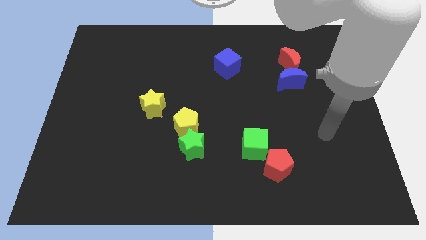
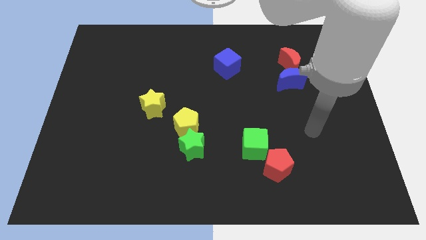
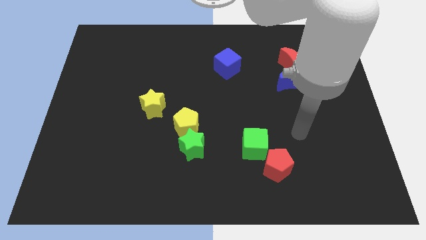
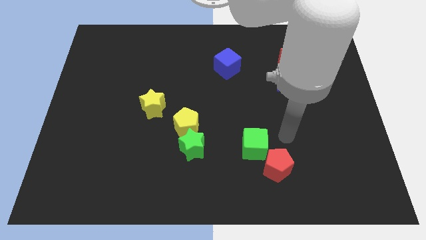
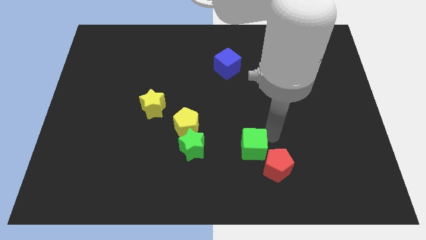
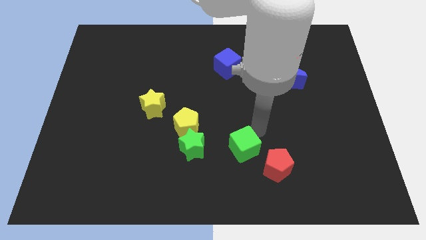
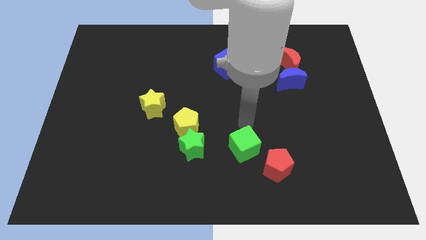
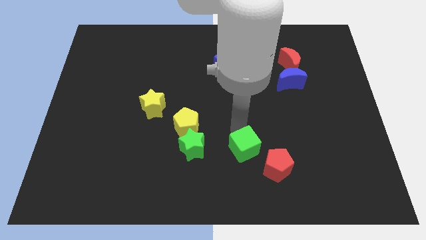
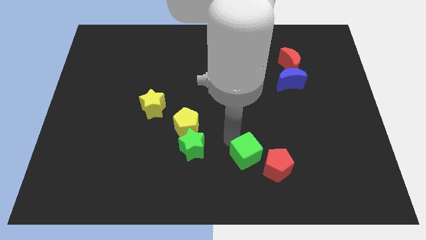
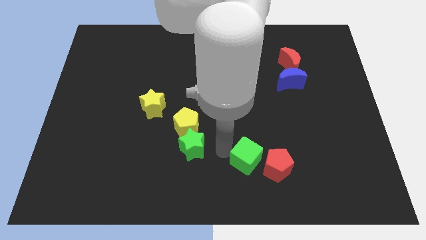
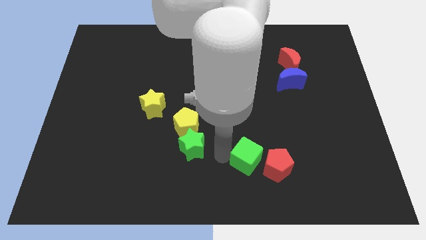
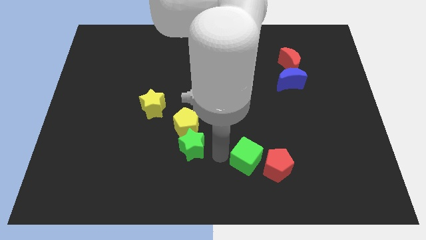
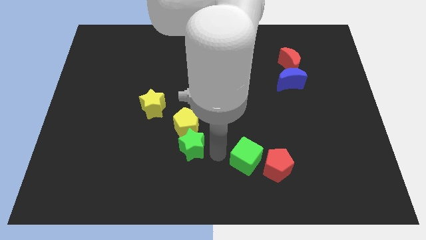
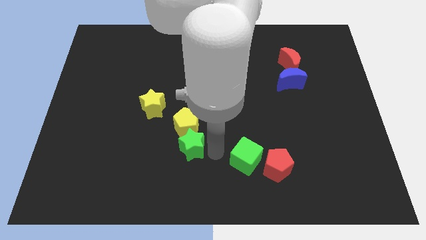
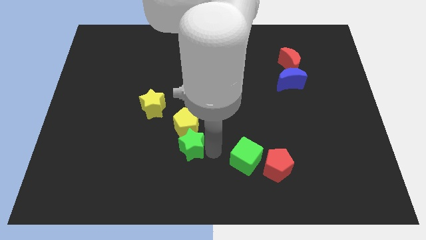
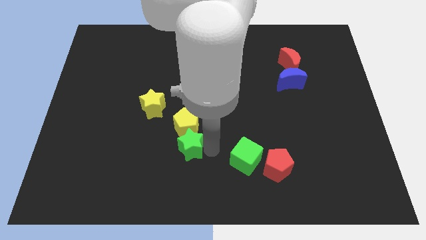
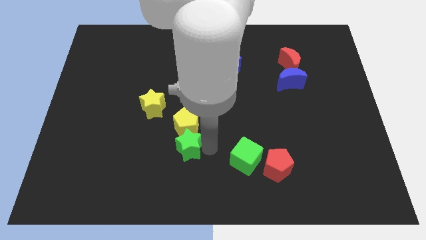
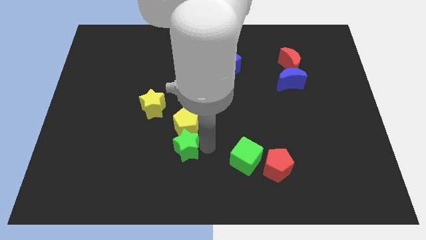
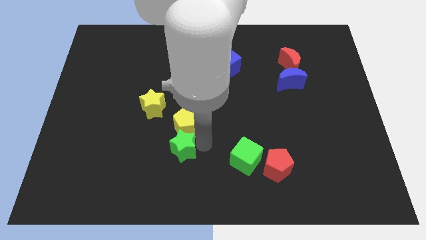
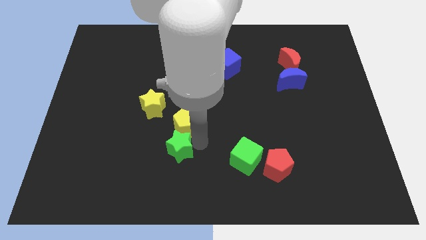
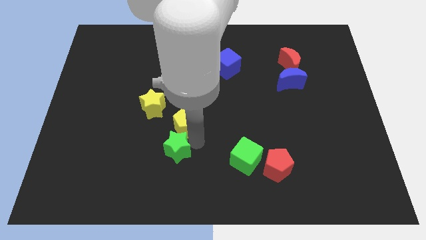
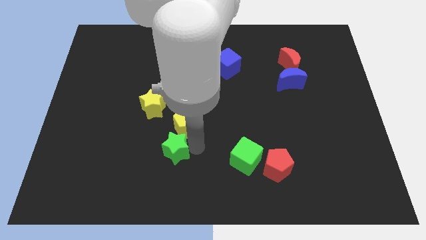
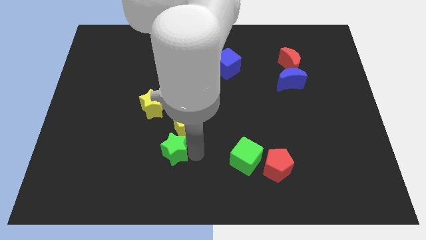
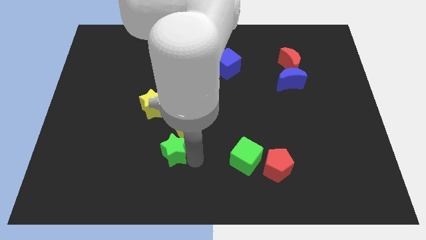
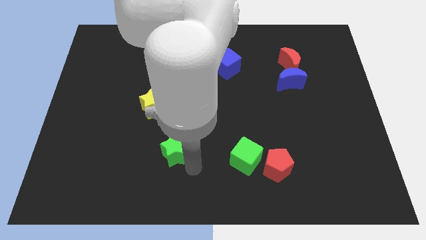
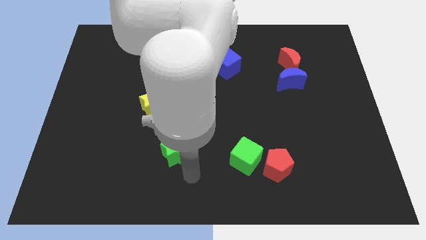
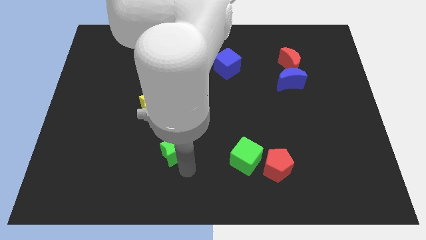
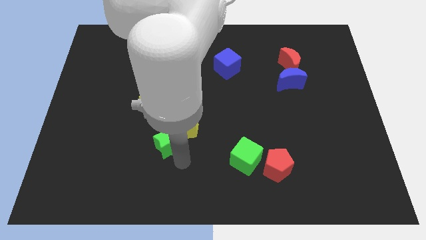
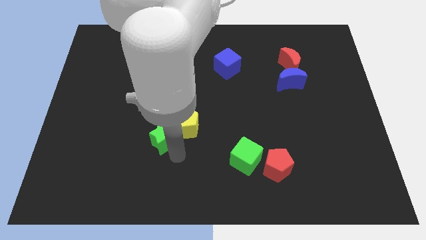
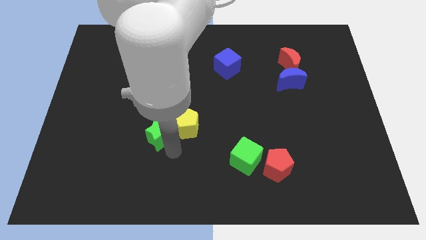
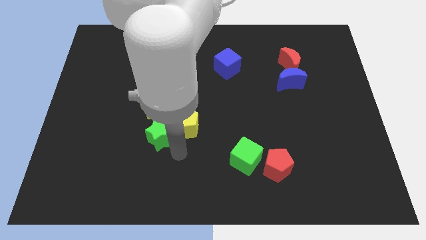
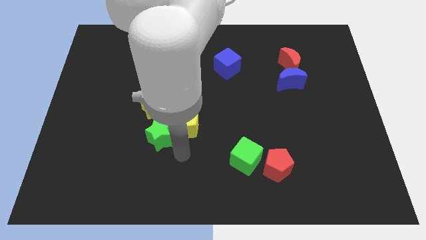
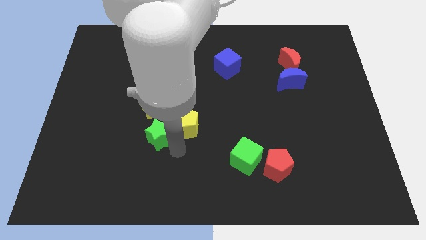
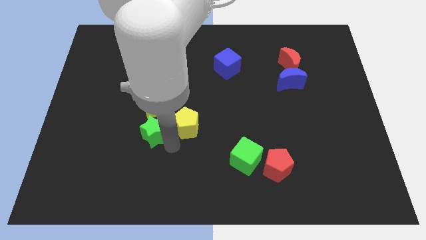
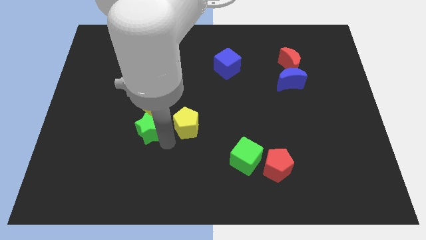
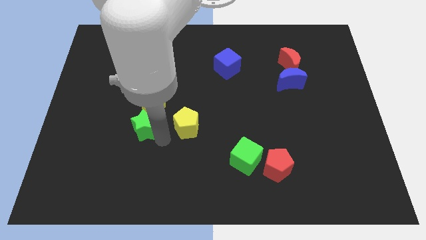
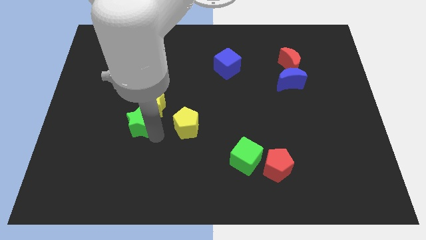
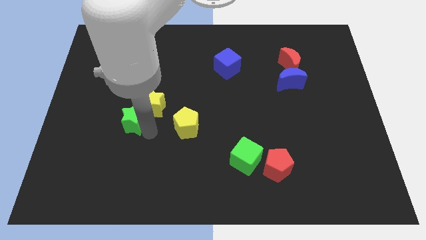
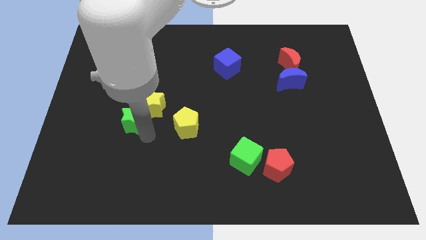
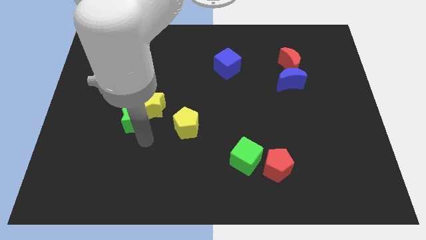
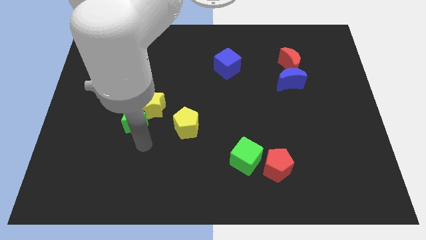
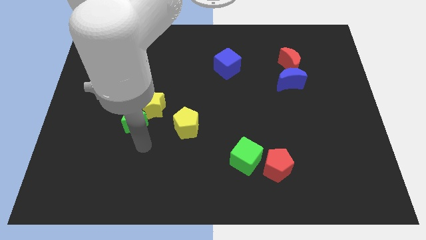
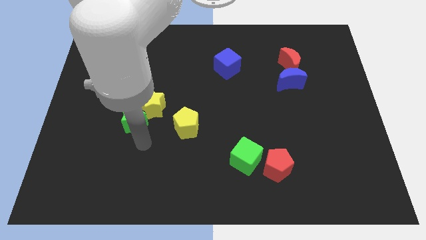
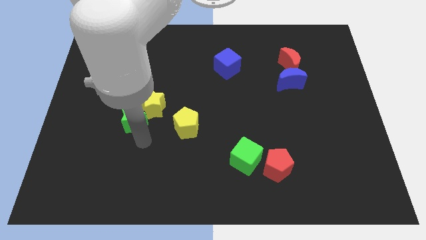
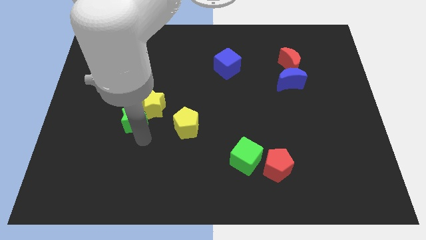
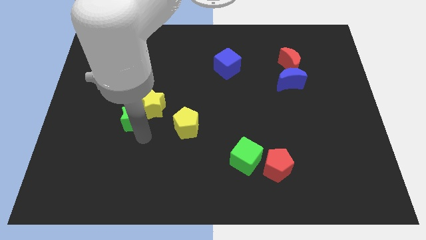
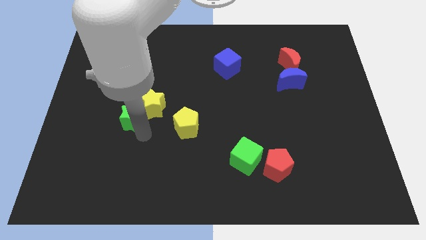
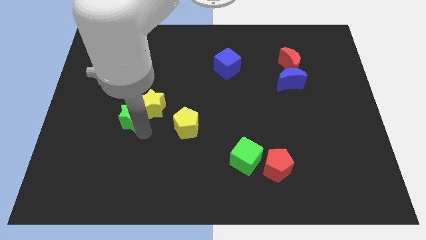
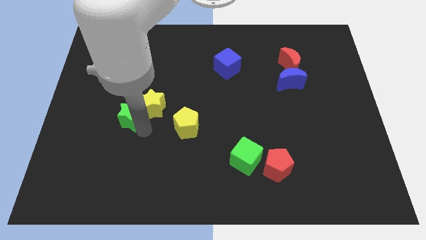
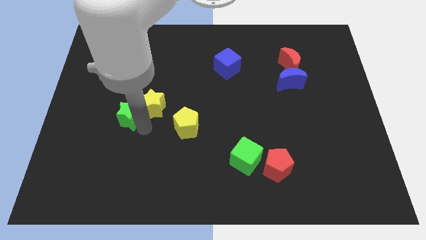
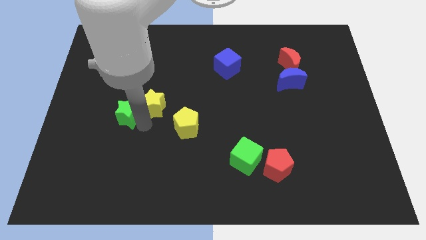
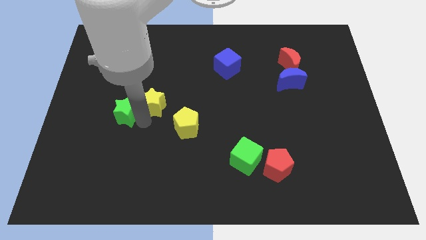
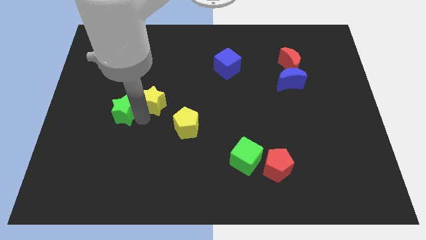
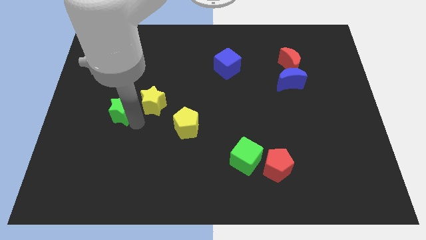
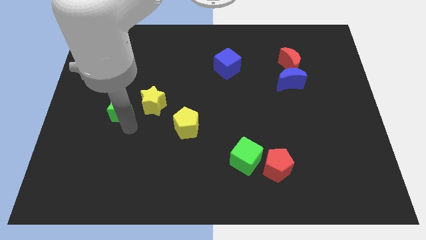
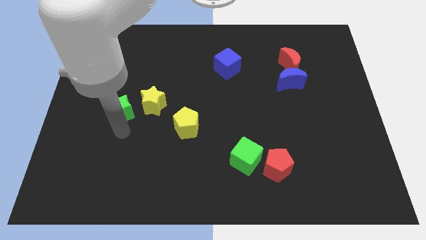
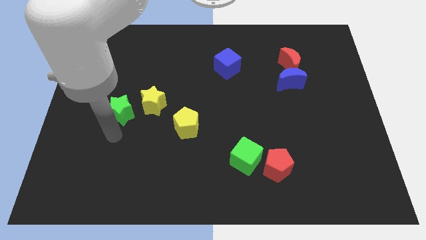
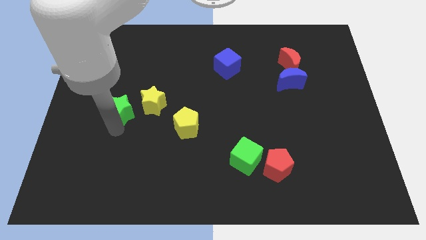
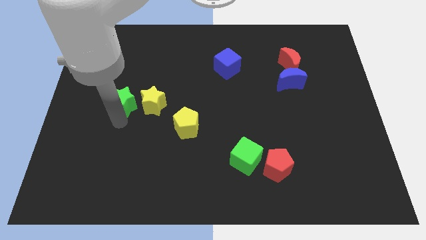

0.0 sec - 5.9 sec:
move the green star to the top left of the yellow star
